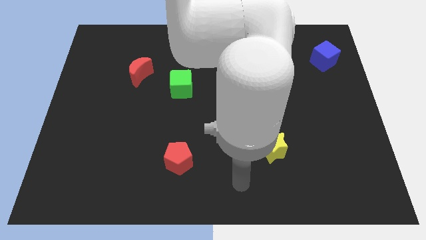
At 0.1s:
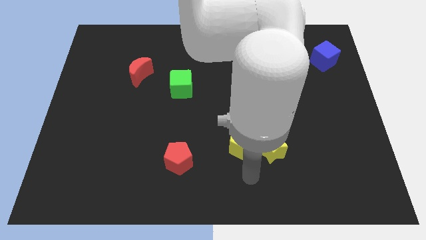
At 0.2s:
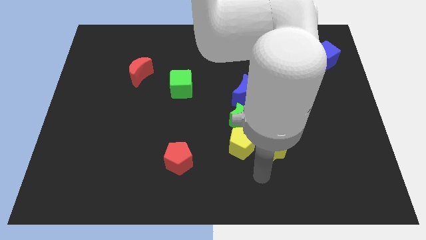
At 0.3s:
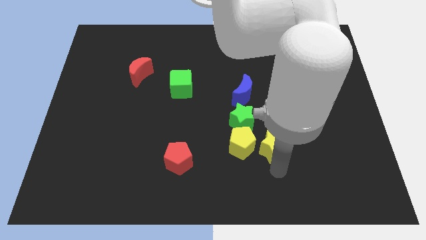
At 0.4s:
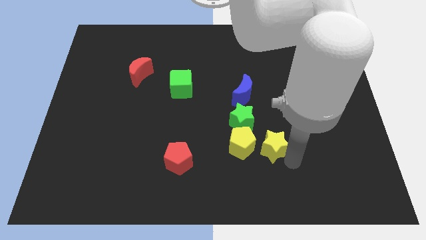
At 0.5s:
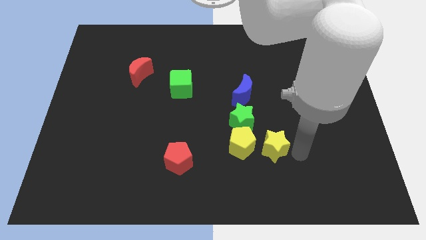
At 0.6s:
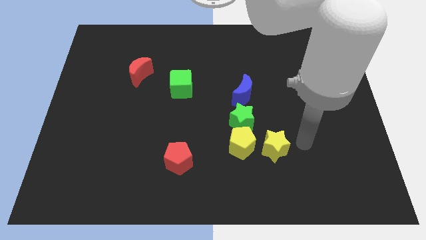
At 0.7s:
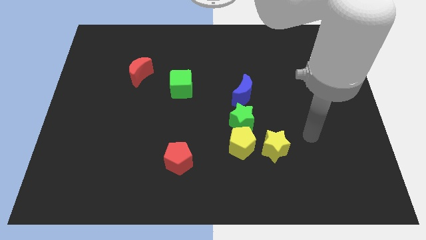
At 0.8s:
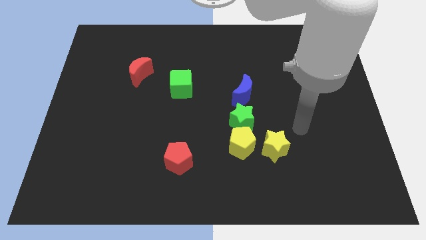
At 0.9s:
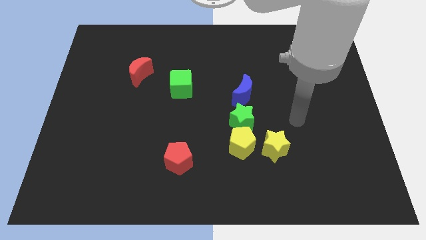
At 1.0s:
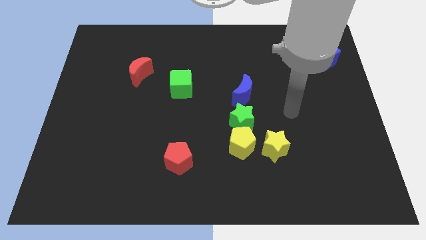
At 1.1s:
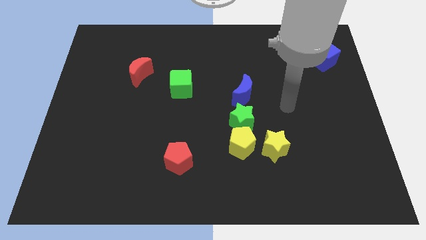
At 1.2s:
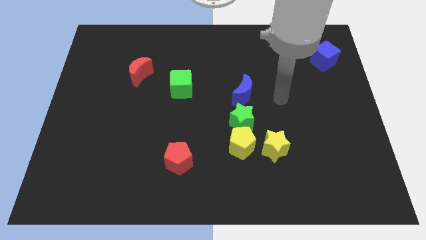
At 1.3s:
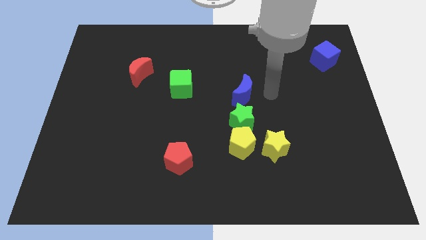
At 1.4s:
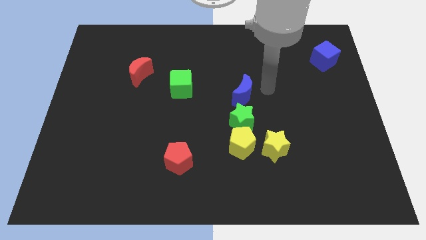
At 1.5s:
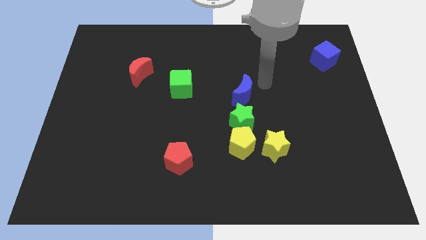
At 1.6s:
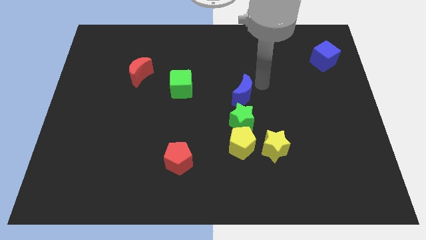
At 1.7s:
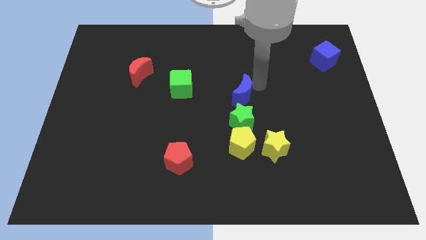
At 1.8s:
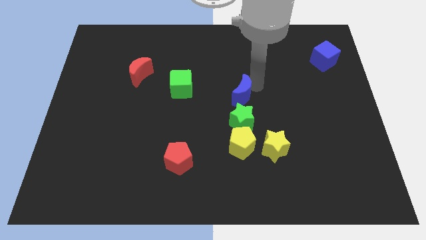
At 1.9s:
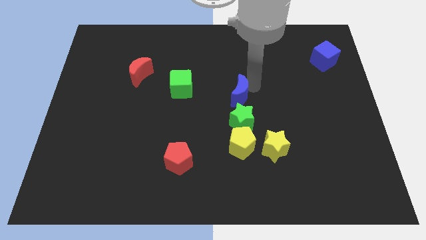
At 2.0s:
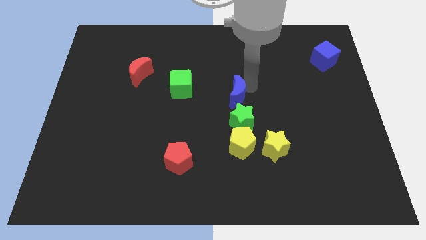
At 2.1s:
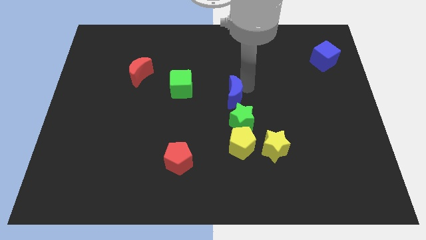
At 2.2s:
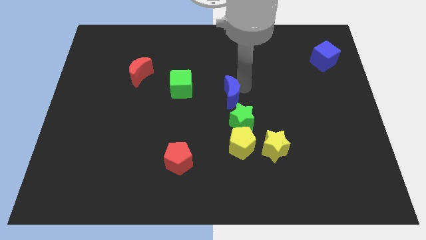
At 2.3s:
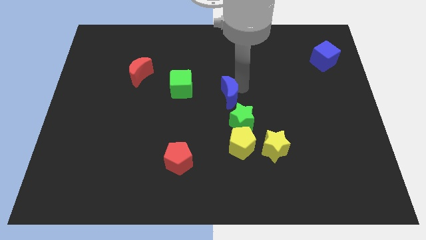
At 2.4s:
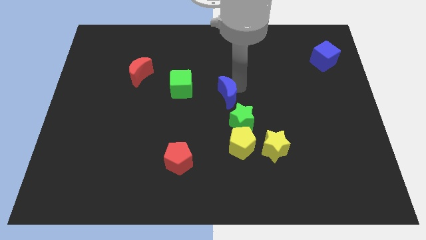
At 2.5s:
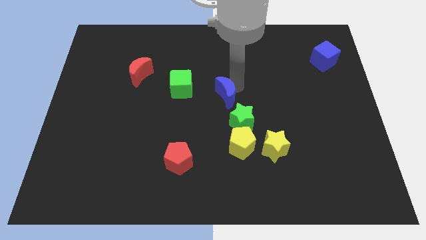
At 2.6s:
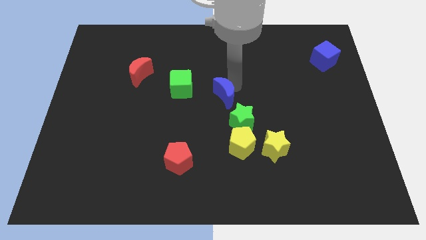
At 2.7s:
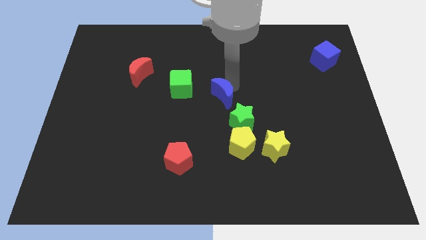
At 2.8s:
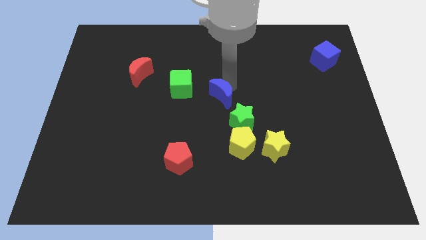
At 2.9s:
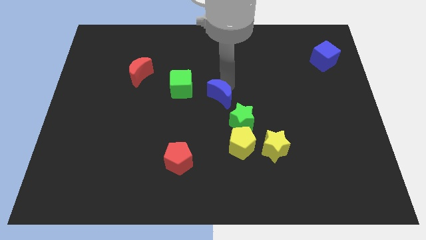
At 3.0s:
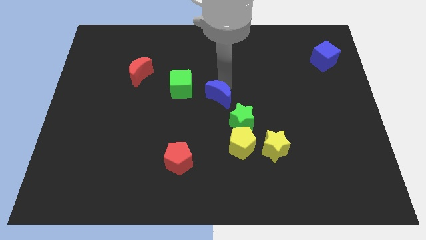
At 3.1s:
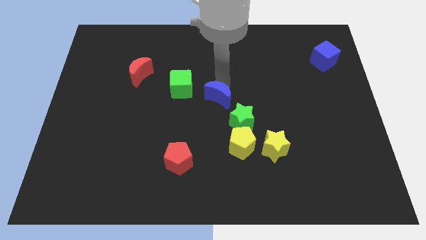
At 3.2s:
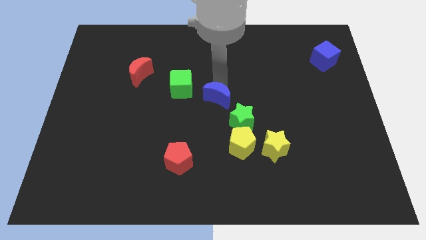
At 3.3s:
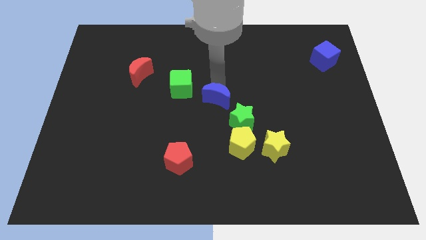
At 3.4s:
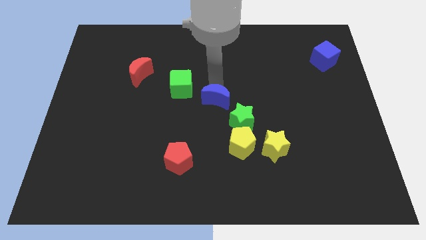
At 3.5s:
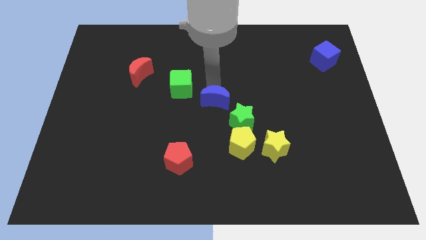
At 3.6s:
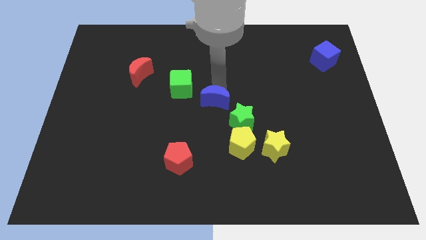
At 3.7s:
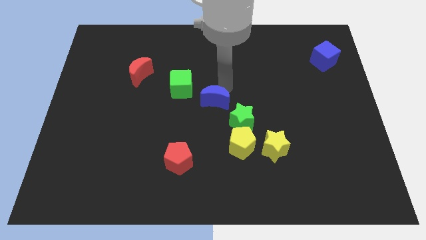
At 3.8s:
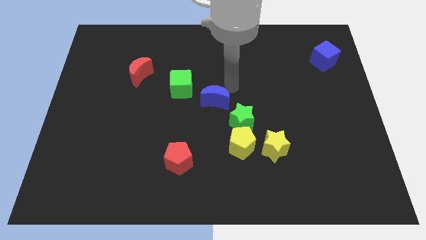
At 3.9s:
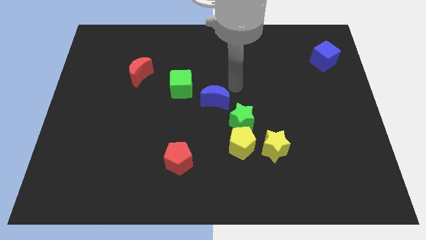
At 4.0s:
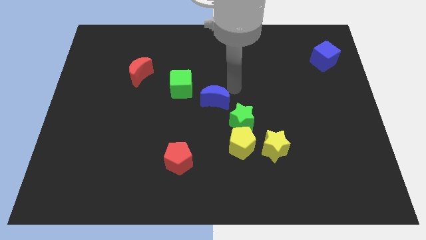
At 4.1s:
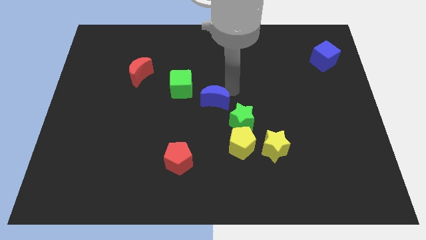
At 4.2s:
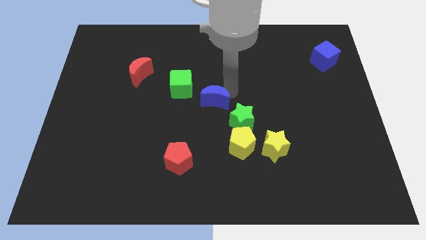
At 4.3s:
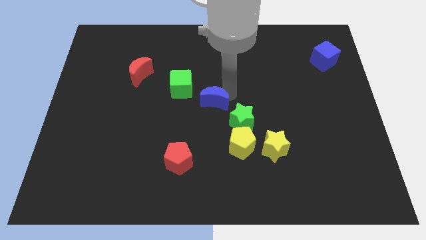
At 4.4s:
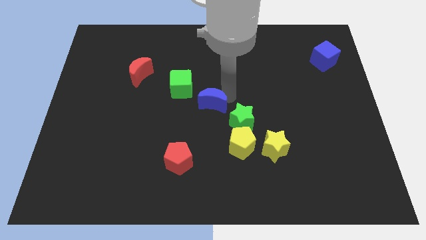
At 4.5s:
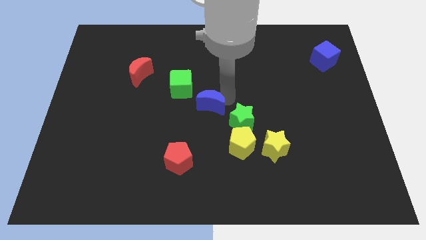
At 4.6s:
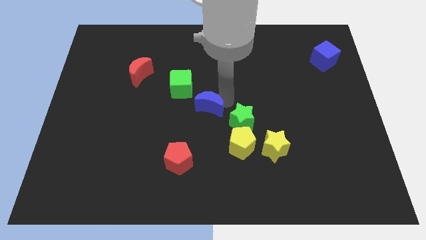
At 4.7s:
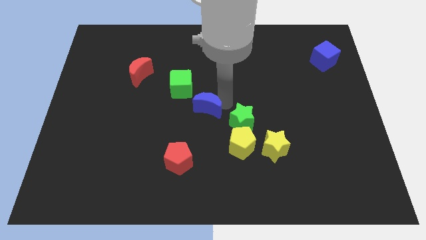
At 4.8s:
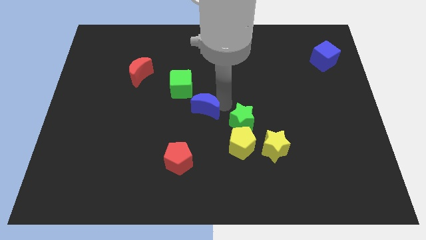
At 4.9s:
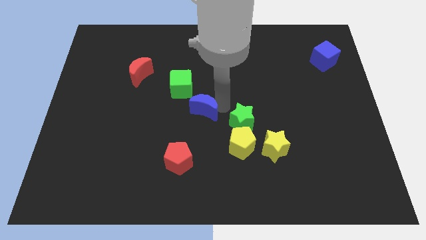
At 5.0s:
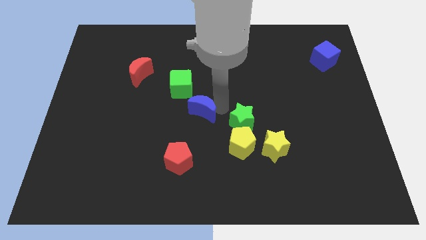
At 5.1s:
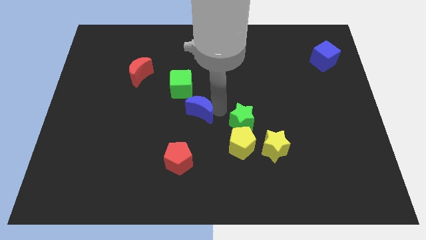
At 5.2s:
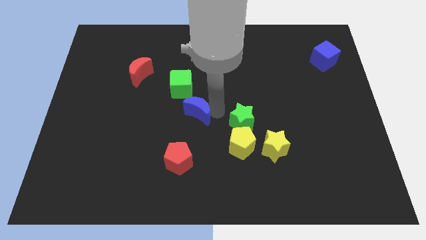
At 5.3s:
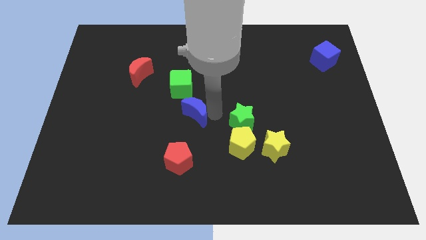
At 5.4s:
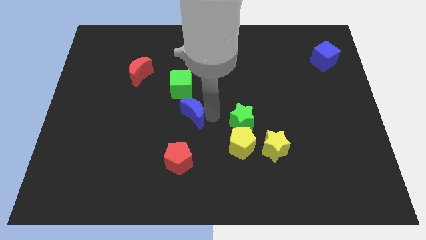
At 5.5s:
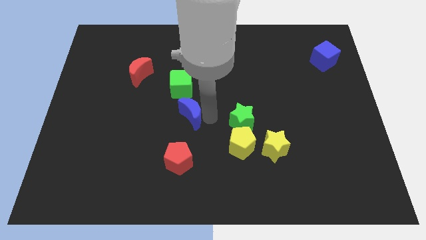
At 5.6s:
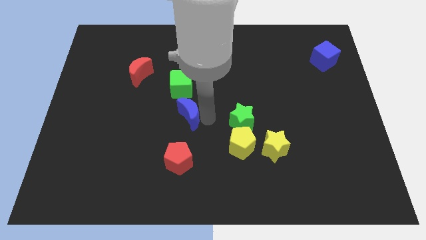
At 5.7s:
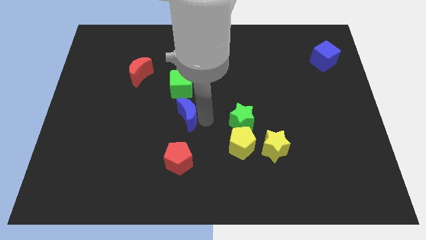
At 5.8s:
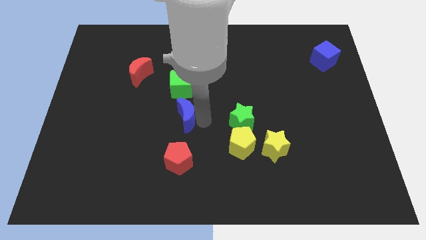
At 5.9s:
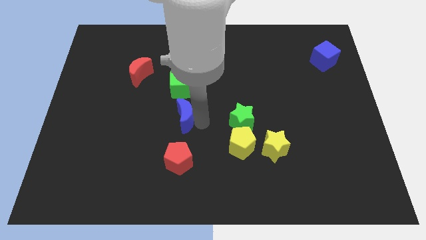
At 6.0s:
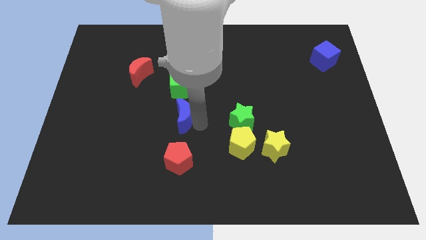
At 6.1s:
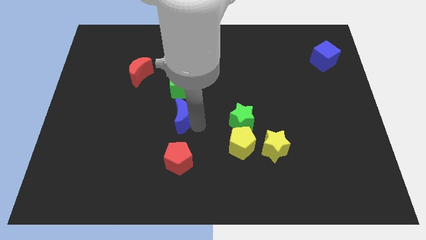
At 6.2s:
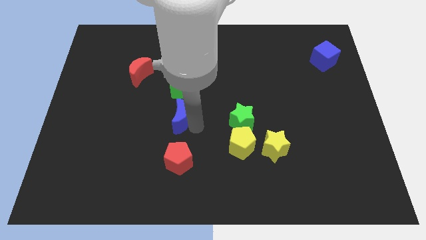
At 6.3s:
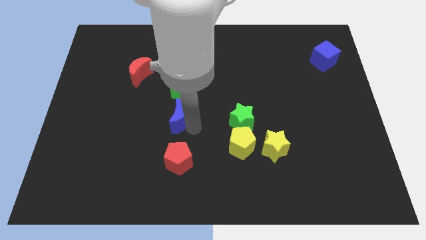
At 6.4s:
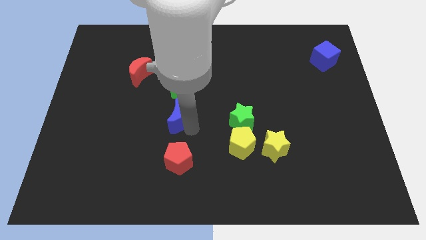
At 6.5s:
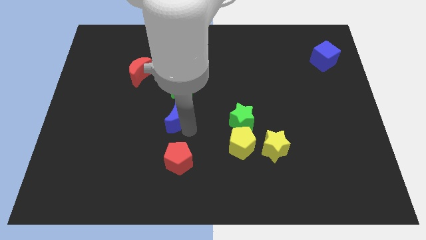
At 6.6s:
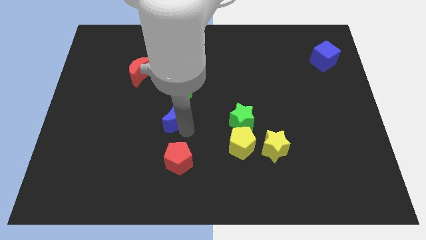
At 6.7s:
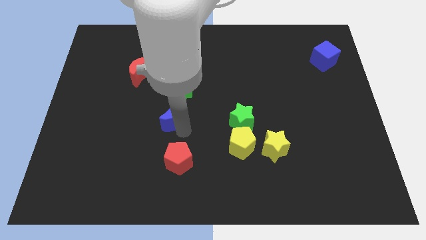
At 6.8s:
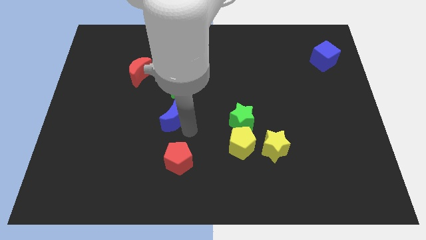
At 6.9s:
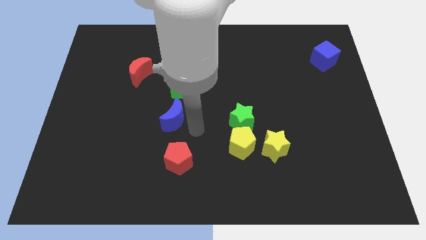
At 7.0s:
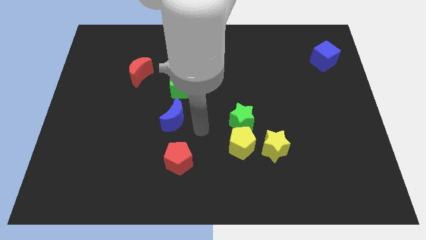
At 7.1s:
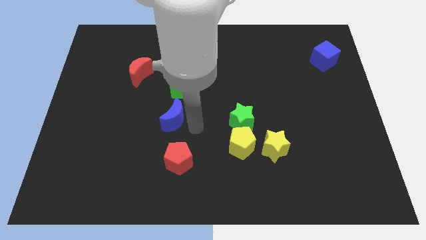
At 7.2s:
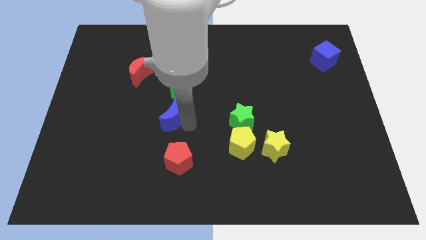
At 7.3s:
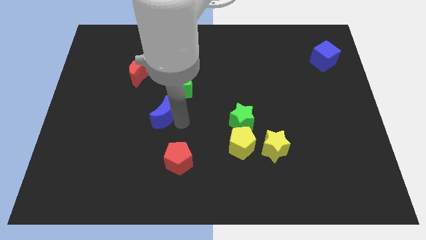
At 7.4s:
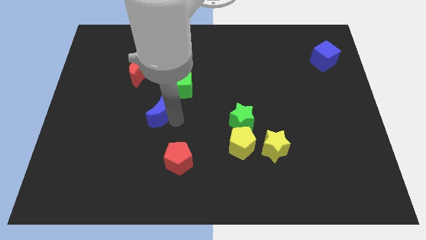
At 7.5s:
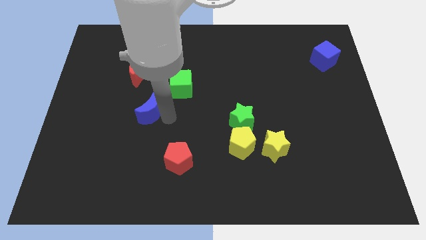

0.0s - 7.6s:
move the blue moon to the left

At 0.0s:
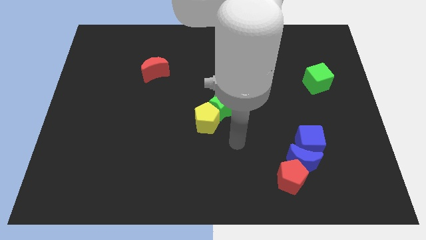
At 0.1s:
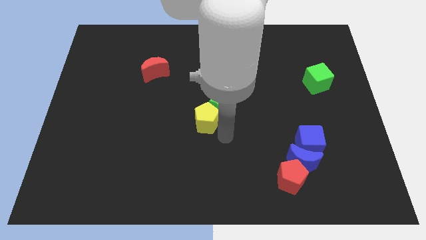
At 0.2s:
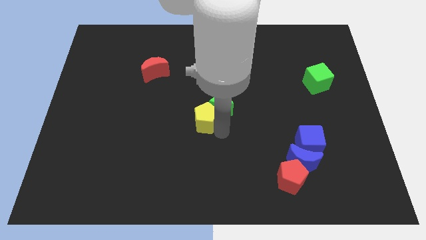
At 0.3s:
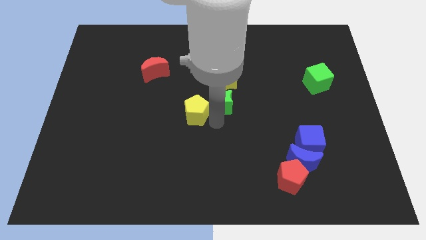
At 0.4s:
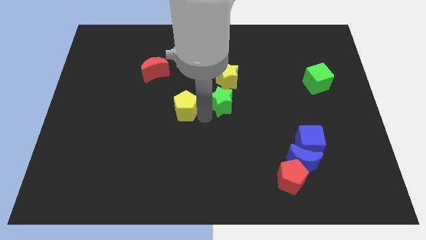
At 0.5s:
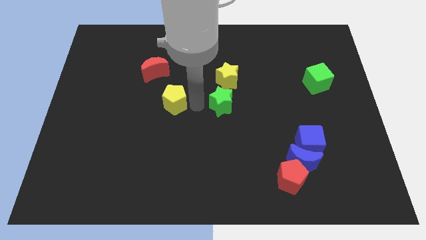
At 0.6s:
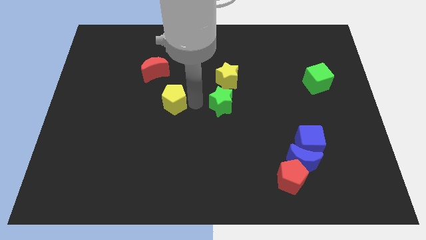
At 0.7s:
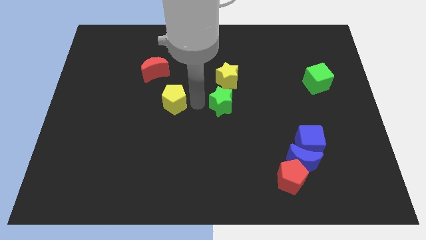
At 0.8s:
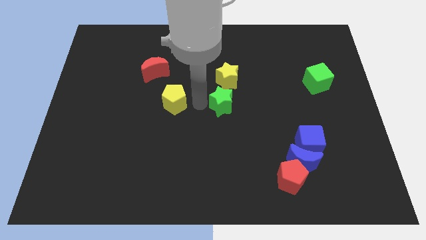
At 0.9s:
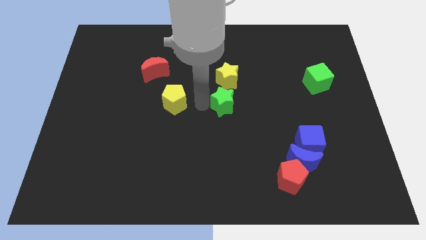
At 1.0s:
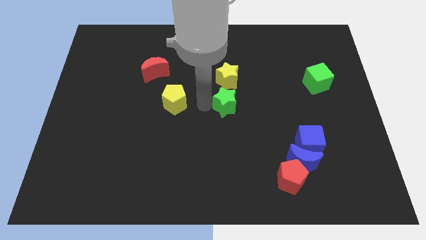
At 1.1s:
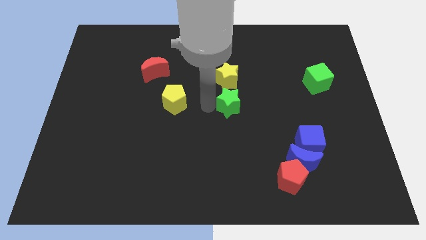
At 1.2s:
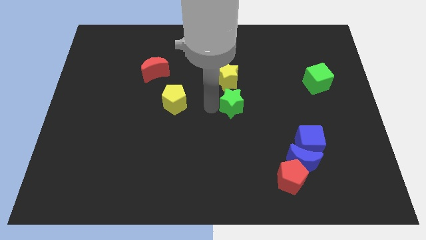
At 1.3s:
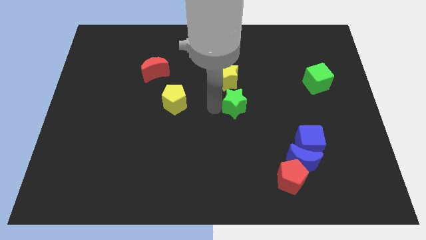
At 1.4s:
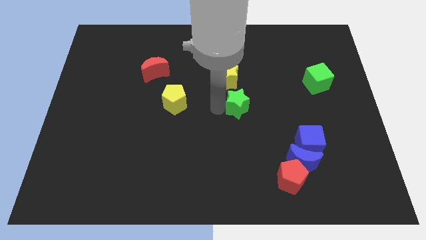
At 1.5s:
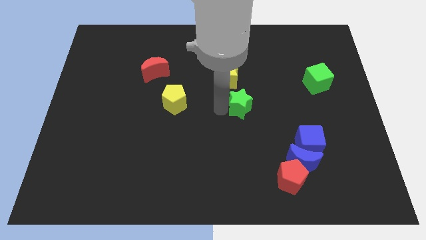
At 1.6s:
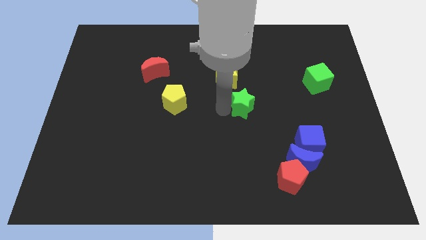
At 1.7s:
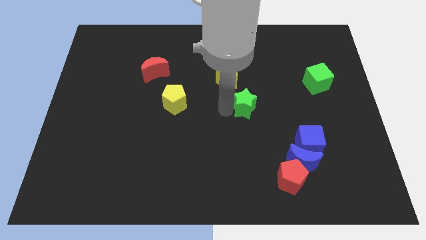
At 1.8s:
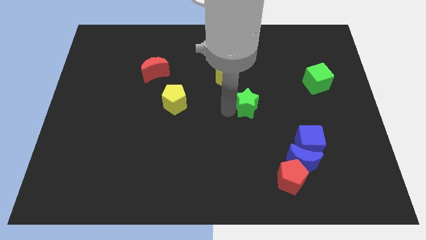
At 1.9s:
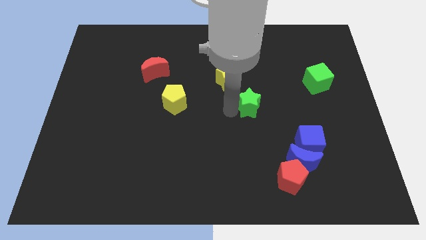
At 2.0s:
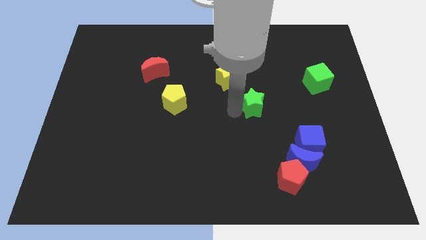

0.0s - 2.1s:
push the green star somewhat to the right
